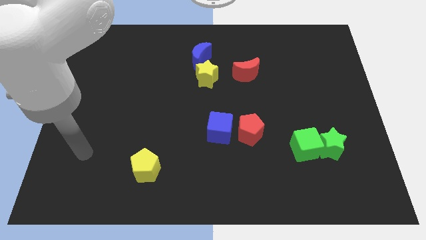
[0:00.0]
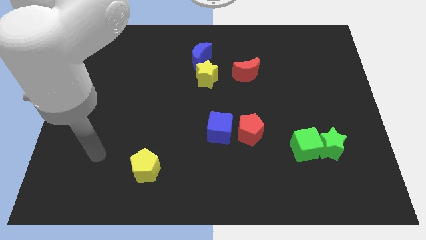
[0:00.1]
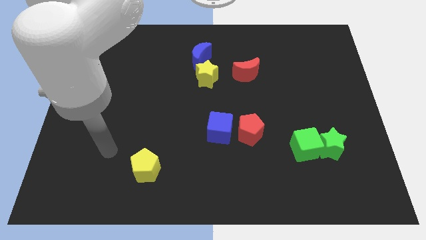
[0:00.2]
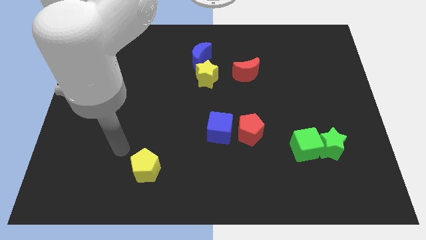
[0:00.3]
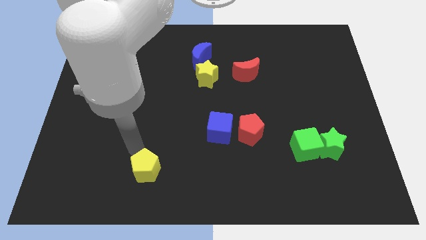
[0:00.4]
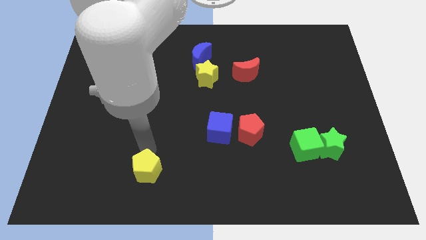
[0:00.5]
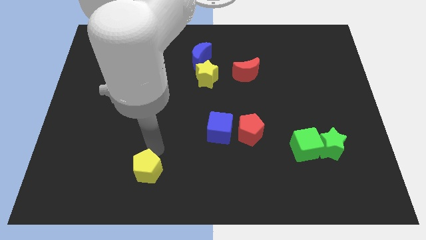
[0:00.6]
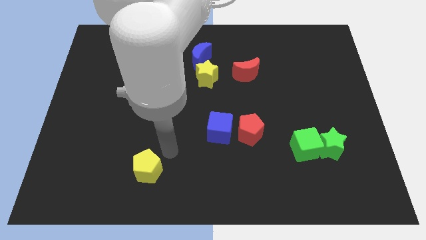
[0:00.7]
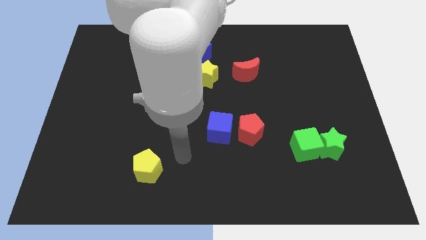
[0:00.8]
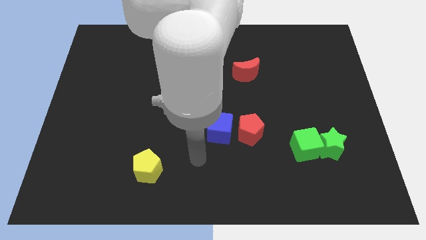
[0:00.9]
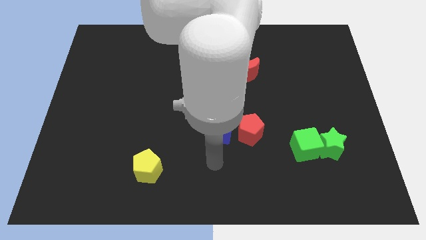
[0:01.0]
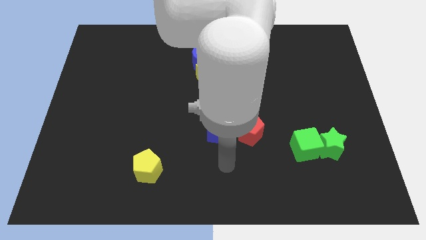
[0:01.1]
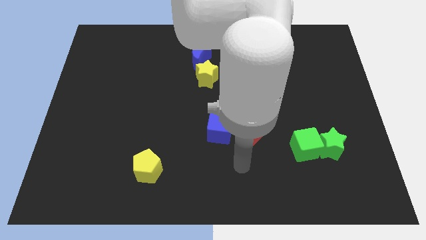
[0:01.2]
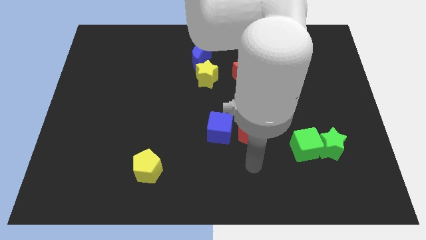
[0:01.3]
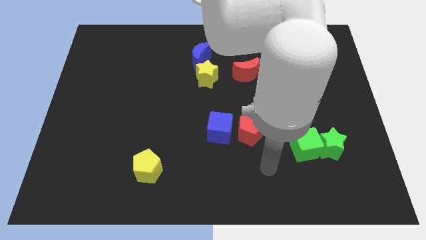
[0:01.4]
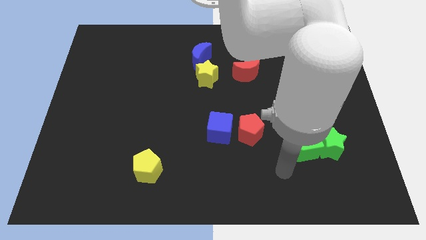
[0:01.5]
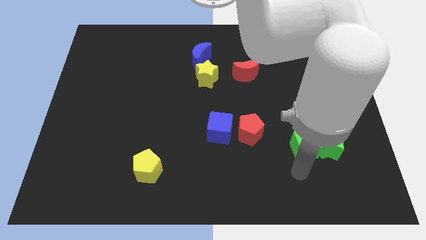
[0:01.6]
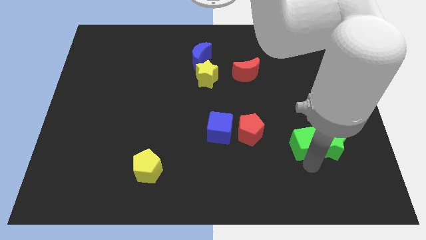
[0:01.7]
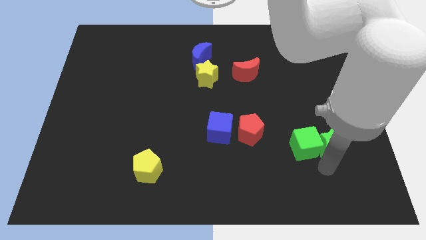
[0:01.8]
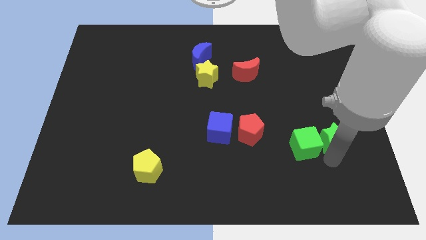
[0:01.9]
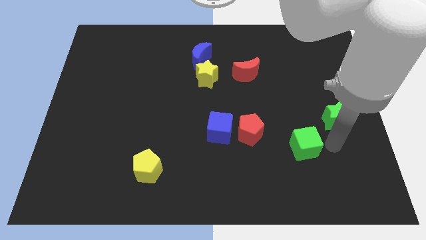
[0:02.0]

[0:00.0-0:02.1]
move the green cube away from the green star

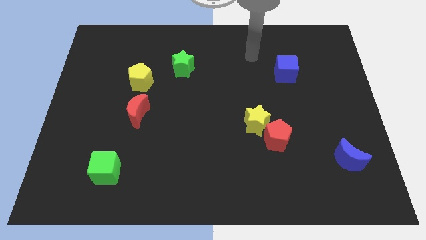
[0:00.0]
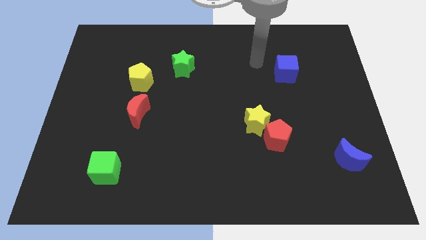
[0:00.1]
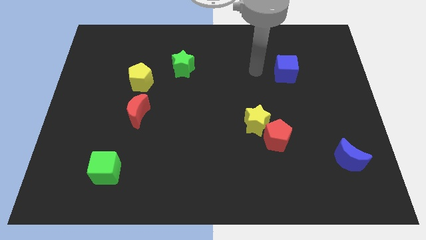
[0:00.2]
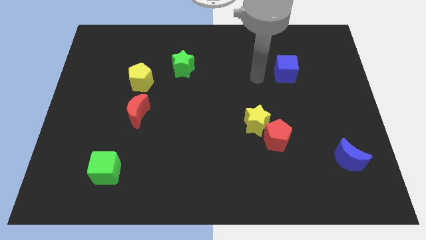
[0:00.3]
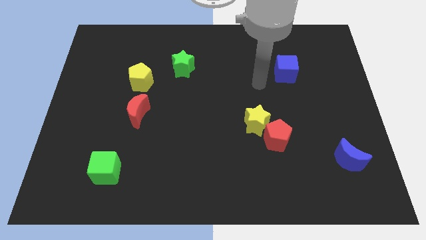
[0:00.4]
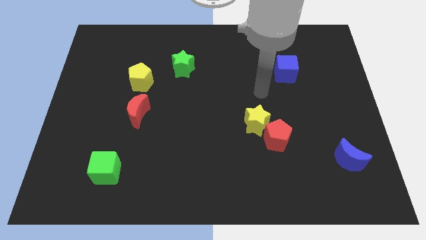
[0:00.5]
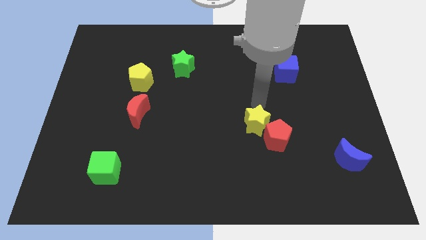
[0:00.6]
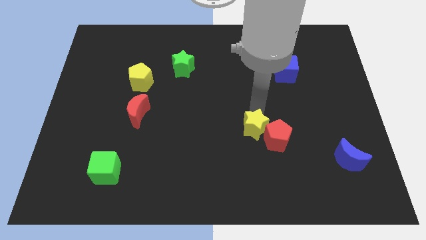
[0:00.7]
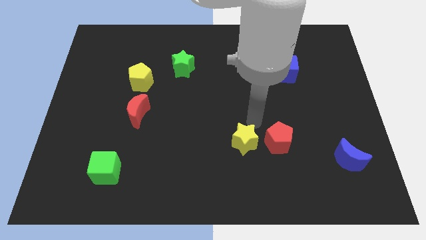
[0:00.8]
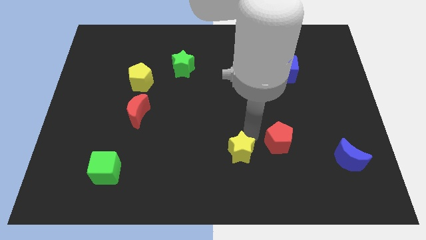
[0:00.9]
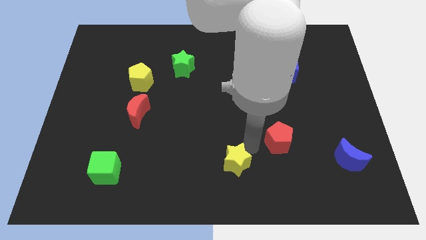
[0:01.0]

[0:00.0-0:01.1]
move the red pentagon away from the yellow star

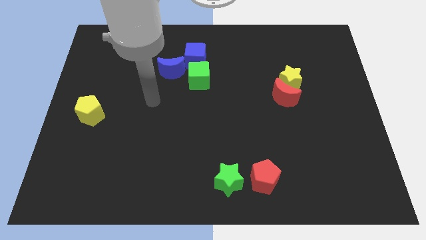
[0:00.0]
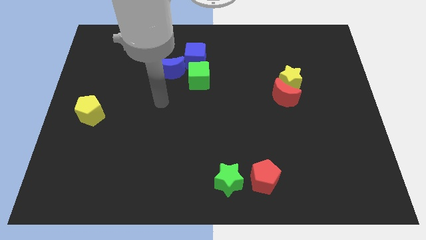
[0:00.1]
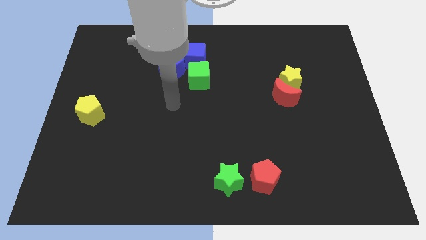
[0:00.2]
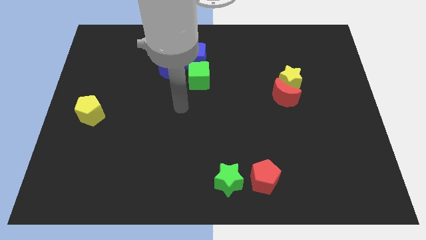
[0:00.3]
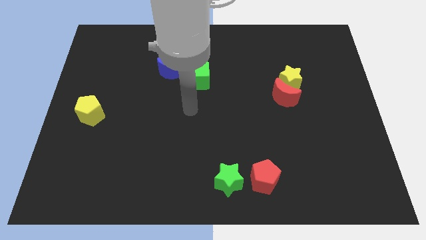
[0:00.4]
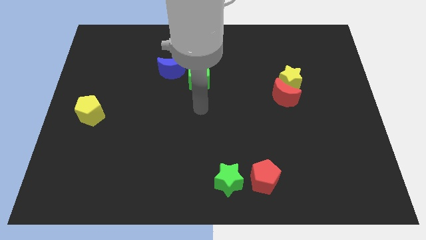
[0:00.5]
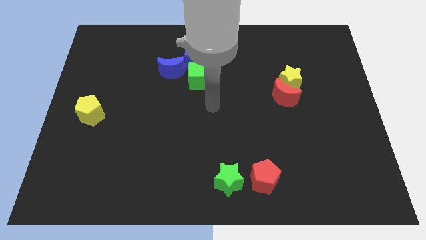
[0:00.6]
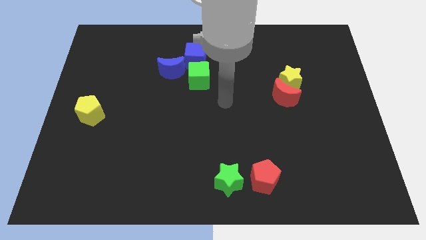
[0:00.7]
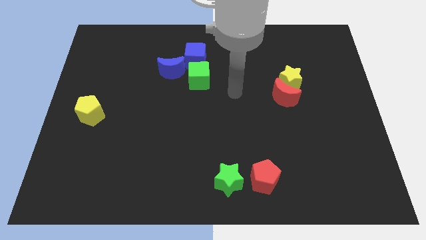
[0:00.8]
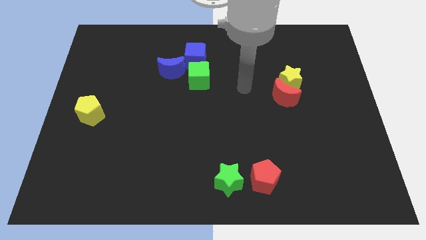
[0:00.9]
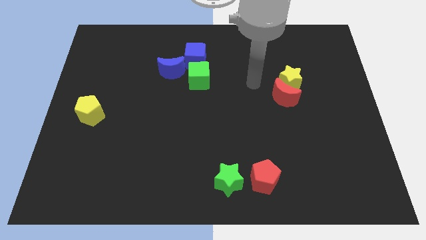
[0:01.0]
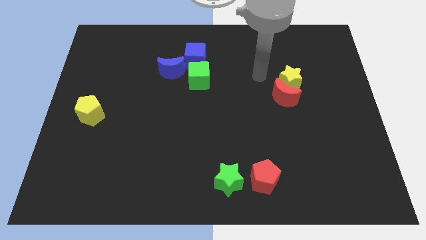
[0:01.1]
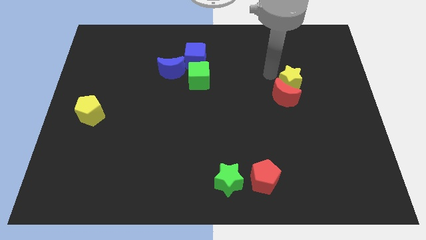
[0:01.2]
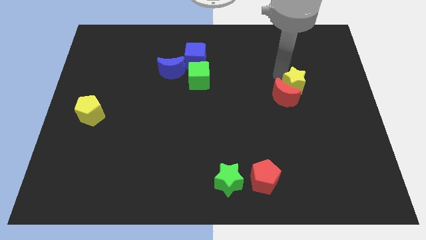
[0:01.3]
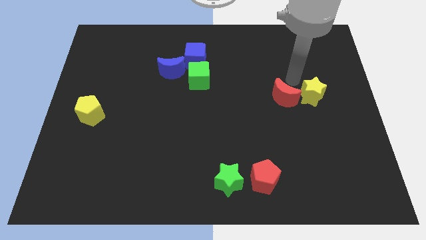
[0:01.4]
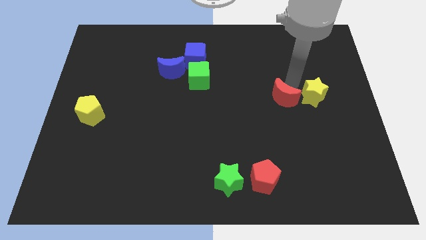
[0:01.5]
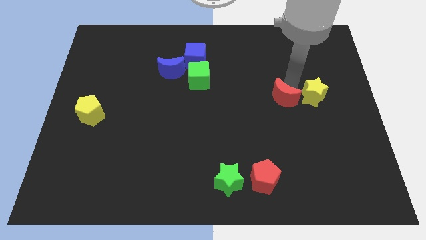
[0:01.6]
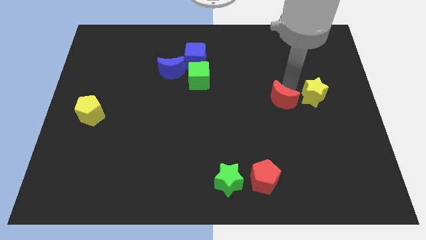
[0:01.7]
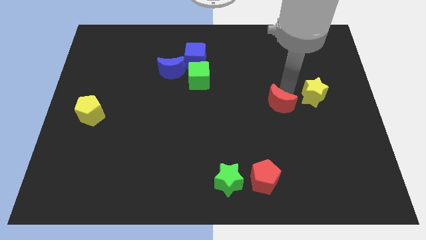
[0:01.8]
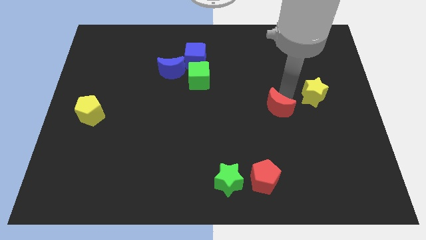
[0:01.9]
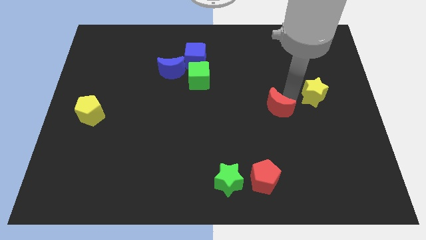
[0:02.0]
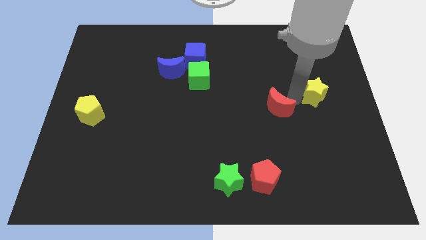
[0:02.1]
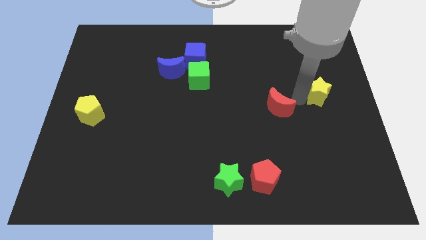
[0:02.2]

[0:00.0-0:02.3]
move the red moon away from the yellow star

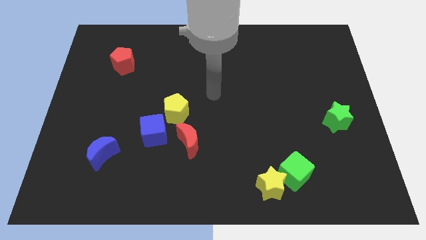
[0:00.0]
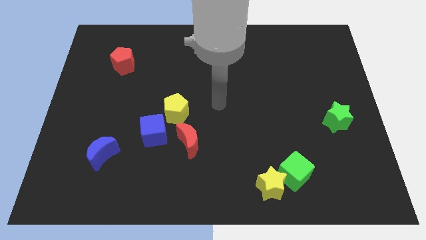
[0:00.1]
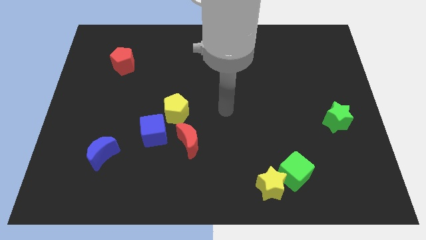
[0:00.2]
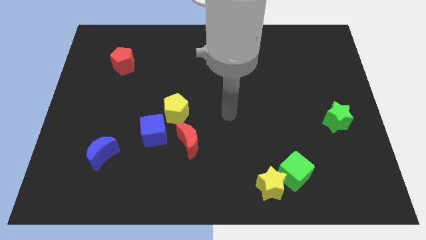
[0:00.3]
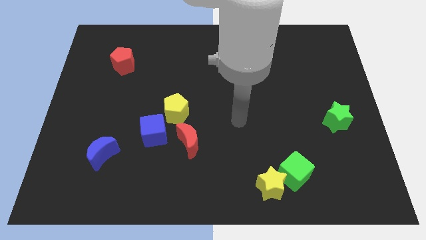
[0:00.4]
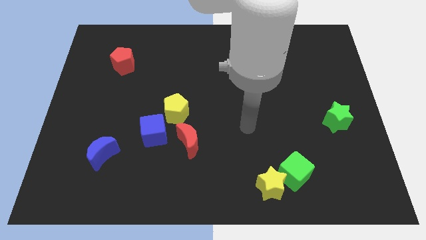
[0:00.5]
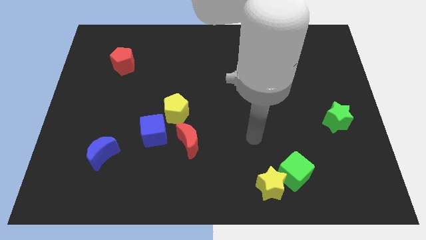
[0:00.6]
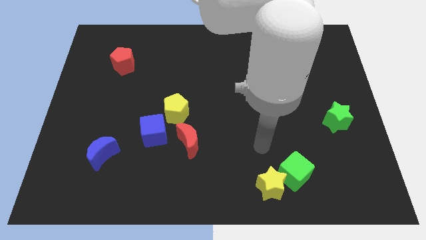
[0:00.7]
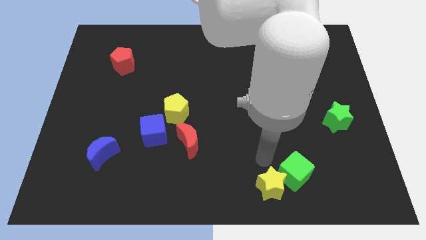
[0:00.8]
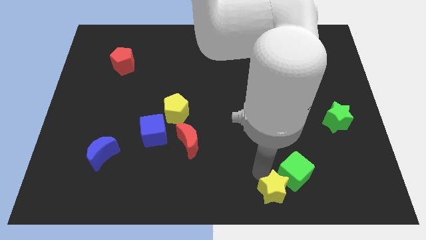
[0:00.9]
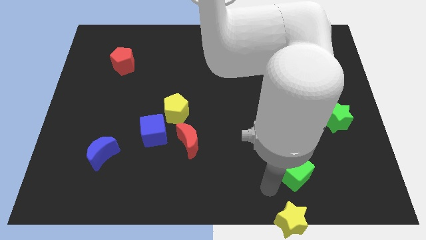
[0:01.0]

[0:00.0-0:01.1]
move the green cube away from the yellow star

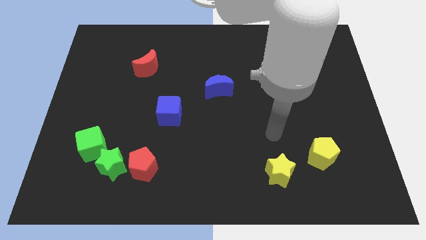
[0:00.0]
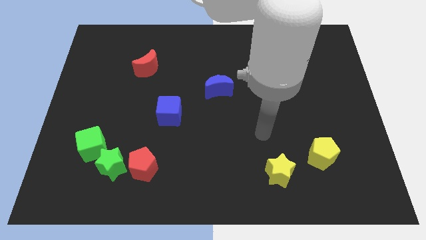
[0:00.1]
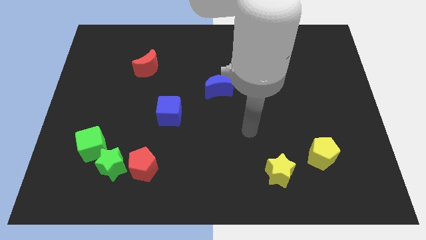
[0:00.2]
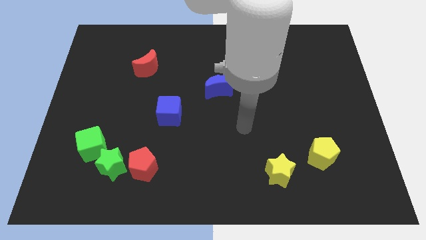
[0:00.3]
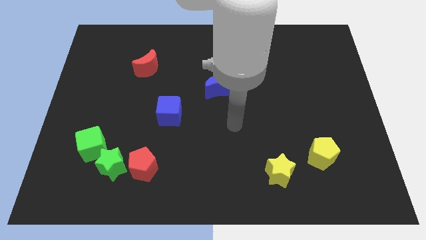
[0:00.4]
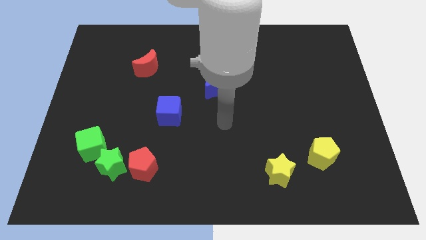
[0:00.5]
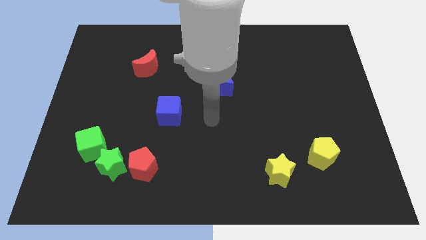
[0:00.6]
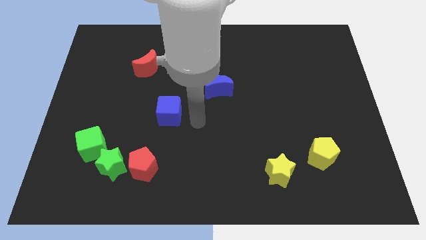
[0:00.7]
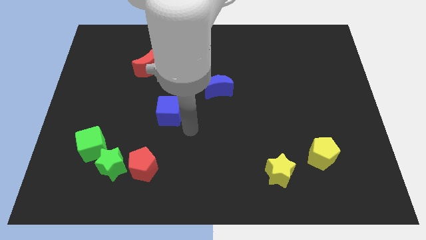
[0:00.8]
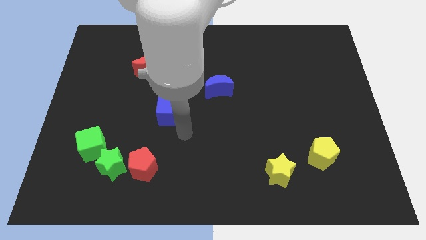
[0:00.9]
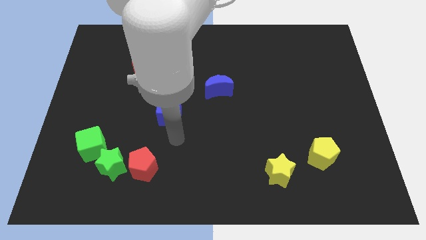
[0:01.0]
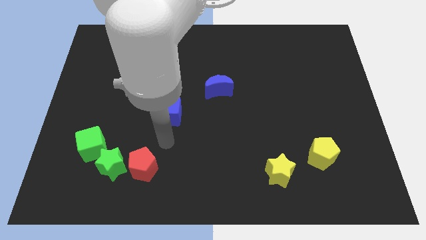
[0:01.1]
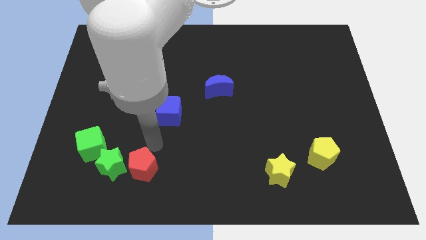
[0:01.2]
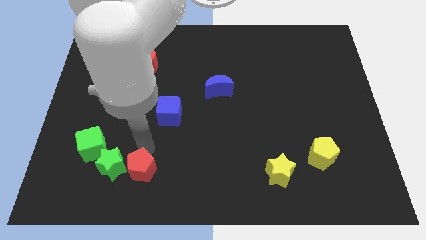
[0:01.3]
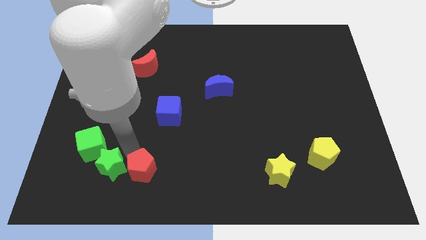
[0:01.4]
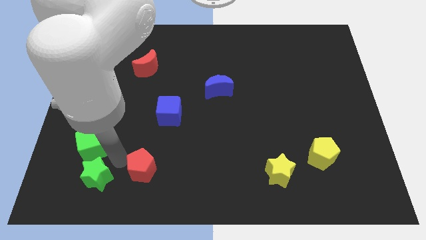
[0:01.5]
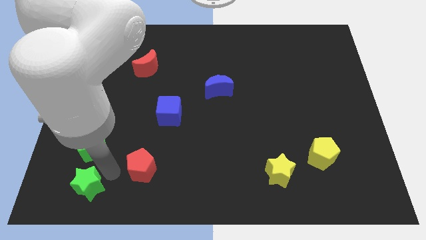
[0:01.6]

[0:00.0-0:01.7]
pull the red pentagon apart from the green star

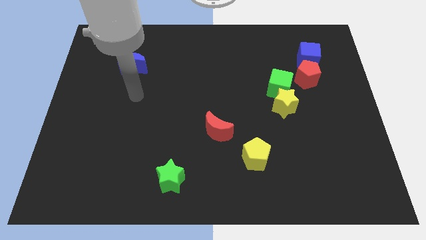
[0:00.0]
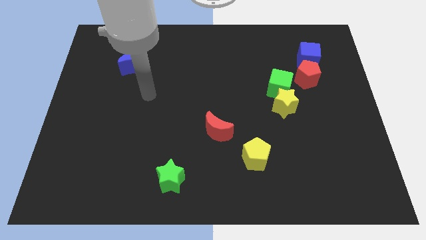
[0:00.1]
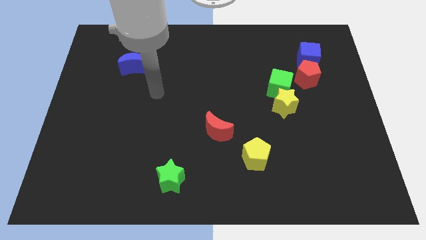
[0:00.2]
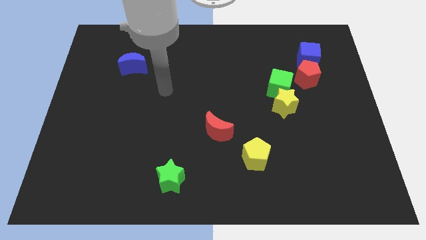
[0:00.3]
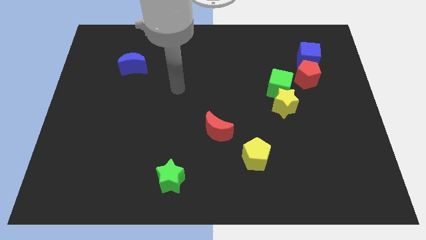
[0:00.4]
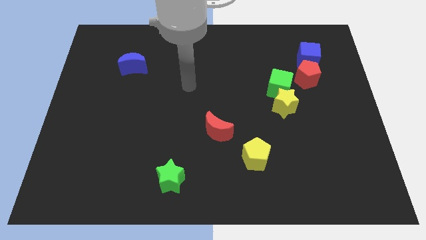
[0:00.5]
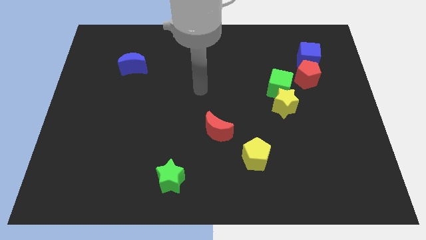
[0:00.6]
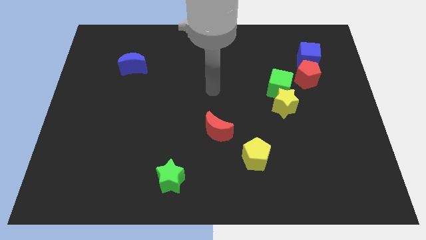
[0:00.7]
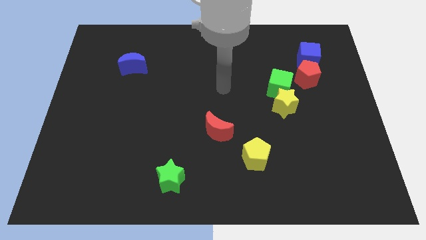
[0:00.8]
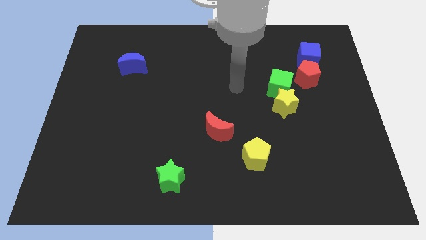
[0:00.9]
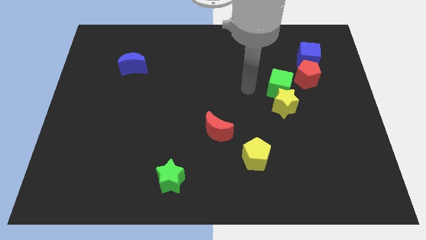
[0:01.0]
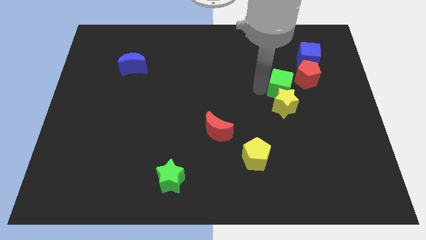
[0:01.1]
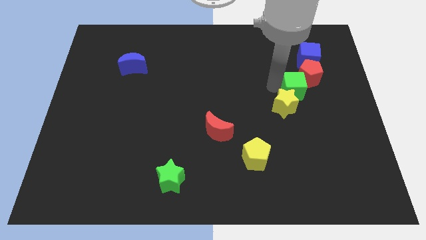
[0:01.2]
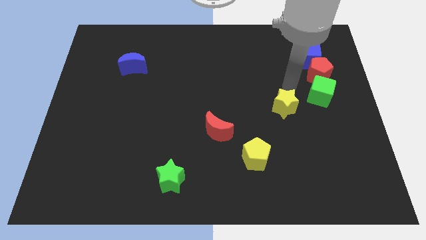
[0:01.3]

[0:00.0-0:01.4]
move the yellow star away from the green cube
